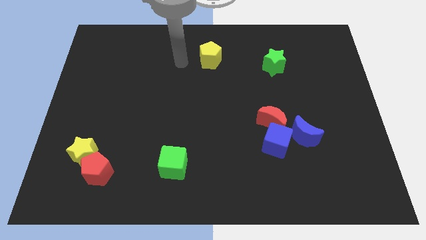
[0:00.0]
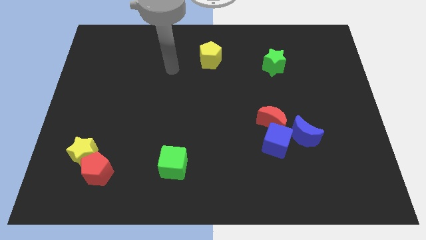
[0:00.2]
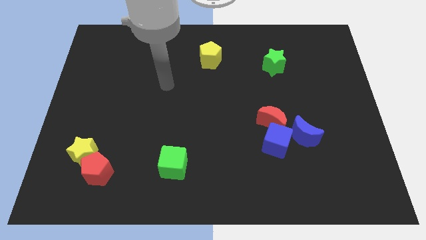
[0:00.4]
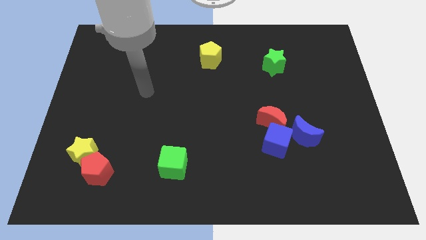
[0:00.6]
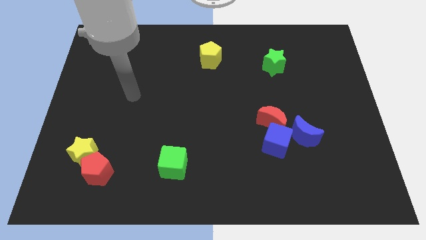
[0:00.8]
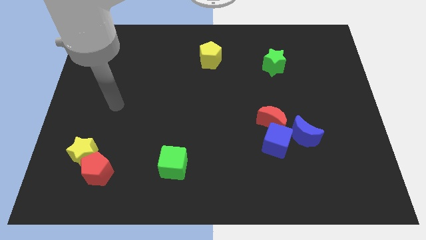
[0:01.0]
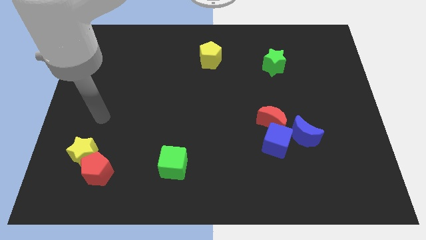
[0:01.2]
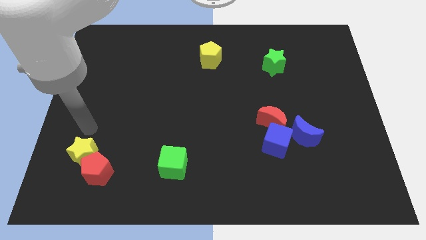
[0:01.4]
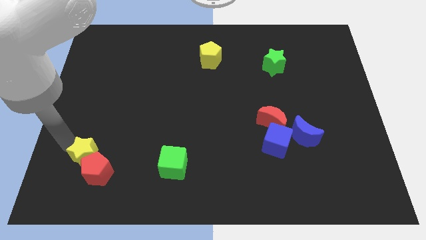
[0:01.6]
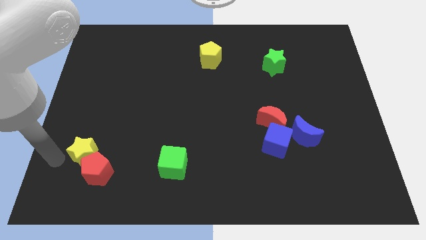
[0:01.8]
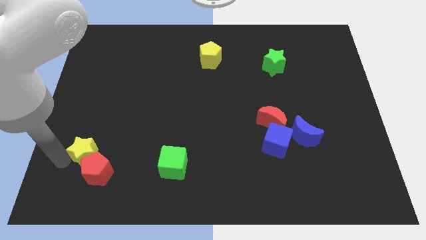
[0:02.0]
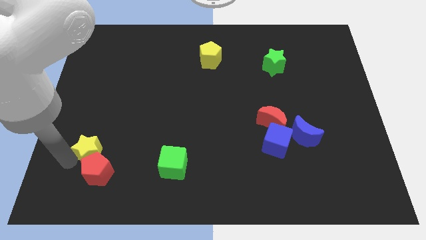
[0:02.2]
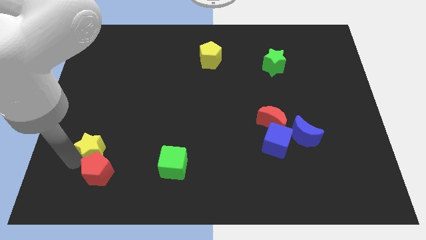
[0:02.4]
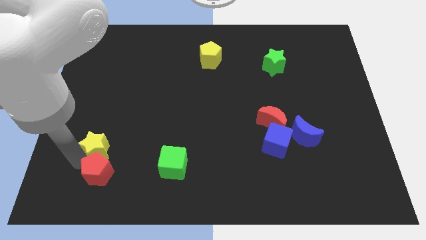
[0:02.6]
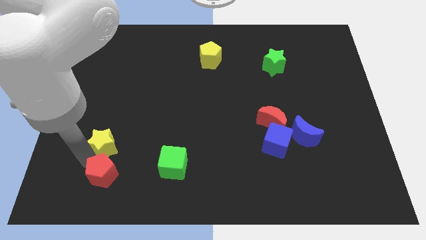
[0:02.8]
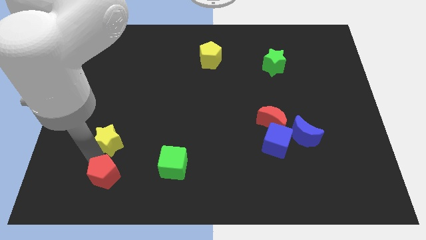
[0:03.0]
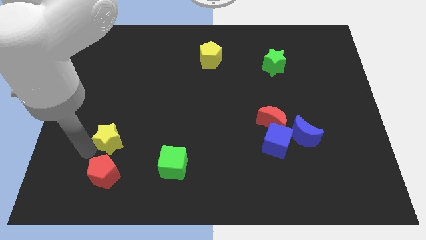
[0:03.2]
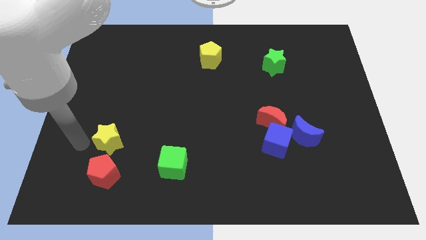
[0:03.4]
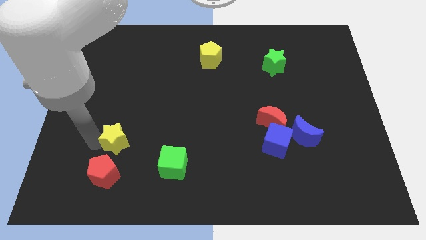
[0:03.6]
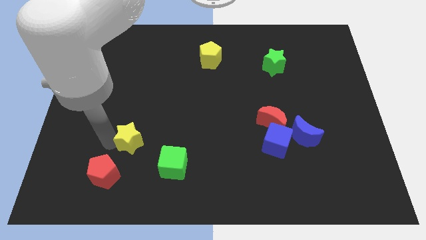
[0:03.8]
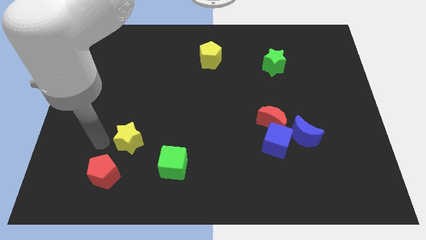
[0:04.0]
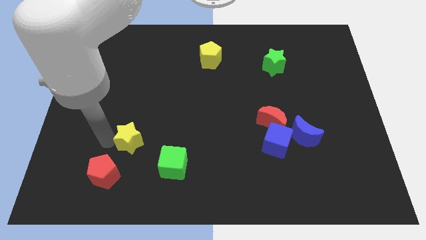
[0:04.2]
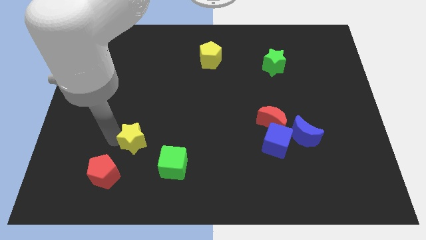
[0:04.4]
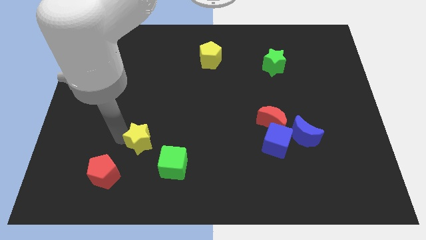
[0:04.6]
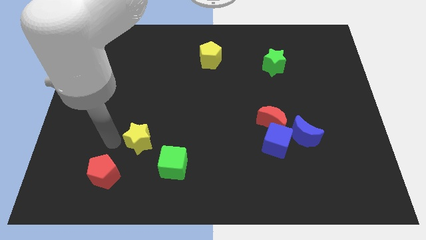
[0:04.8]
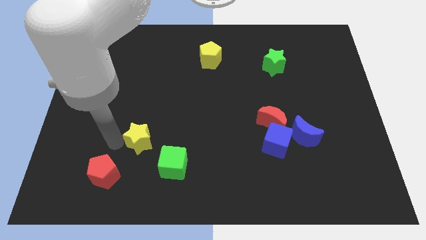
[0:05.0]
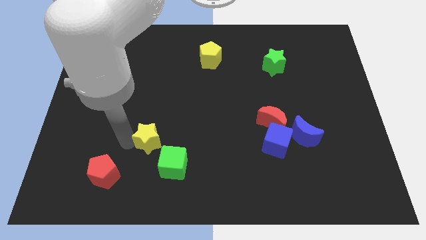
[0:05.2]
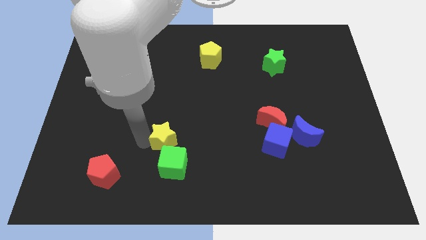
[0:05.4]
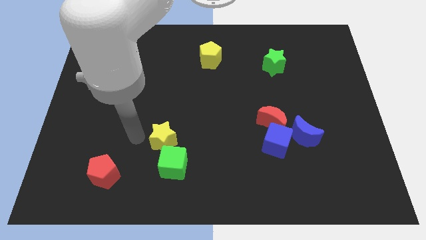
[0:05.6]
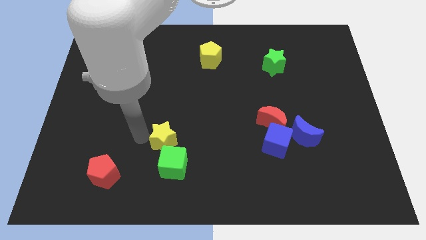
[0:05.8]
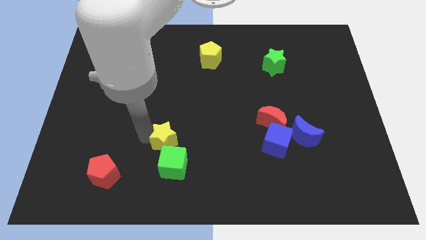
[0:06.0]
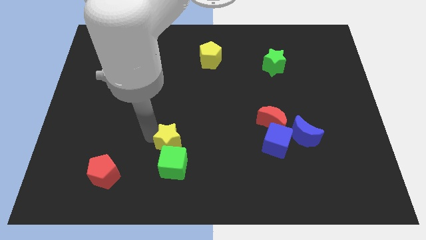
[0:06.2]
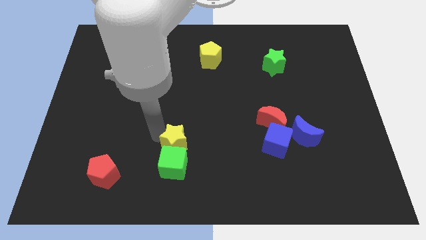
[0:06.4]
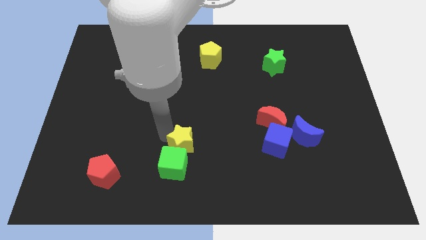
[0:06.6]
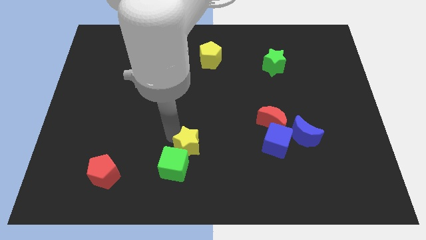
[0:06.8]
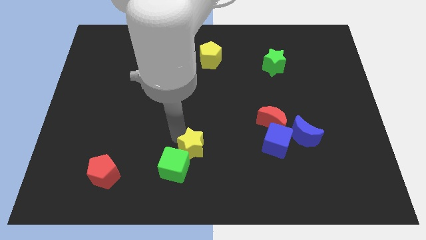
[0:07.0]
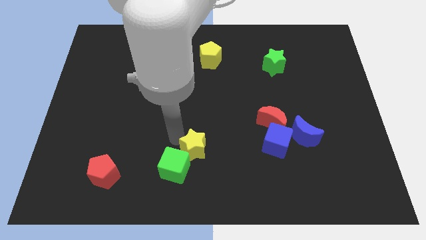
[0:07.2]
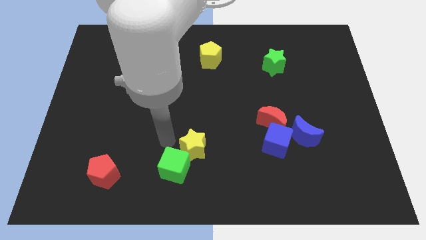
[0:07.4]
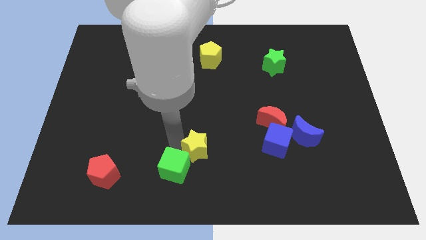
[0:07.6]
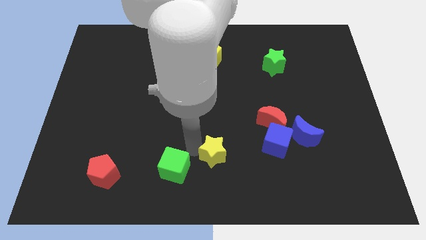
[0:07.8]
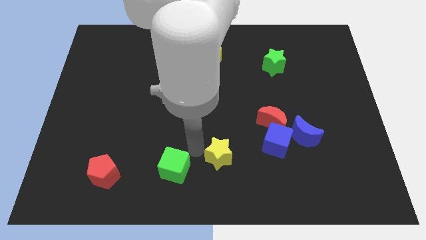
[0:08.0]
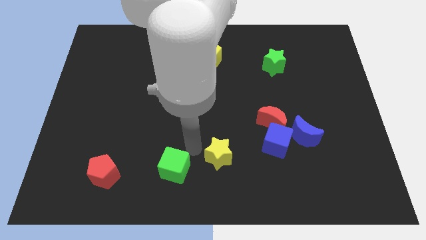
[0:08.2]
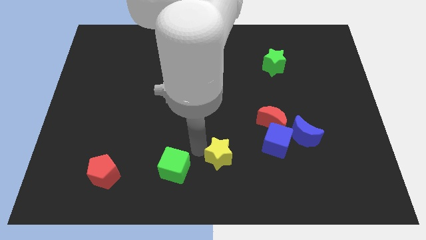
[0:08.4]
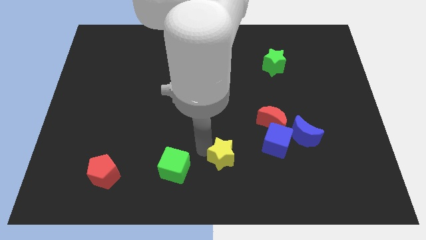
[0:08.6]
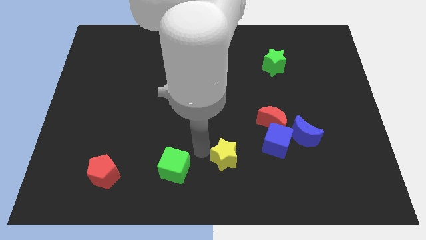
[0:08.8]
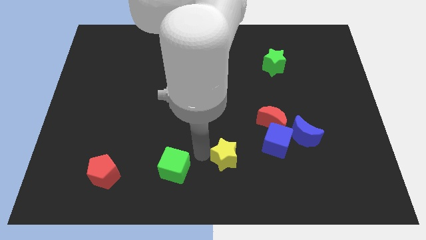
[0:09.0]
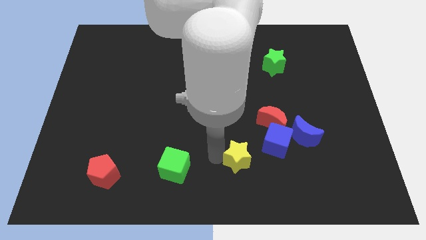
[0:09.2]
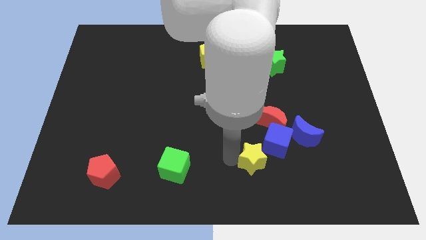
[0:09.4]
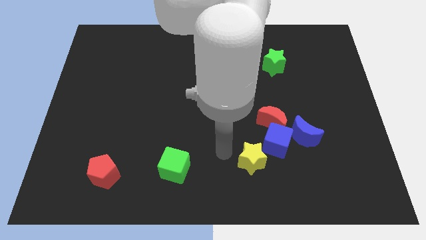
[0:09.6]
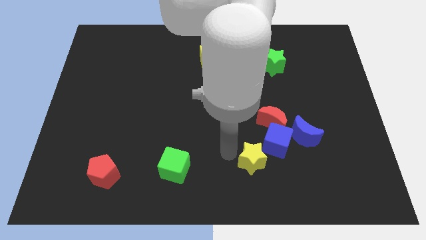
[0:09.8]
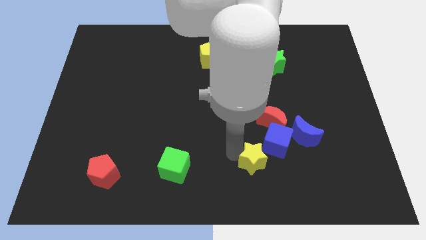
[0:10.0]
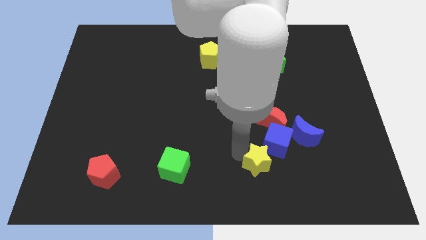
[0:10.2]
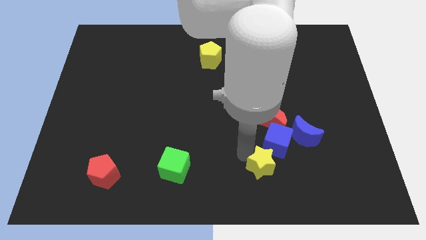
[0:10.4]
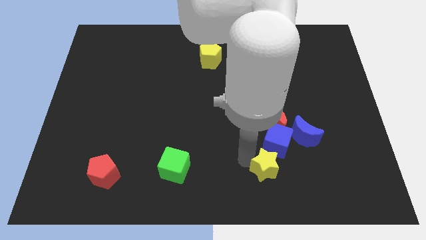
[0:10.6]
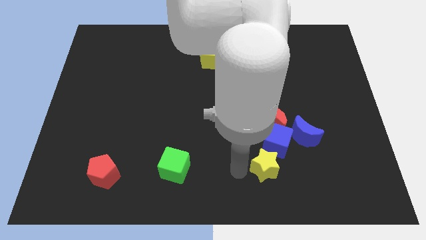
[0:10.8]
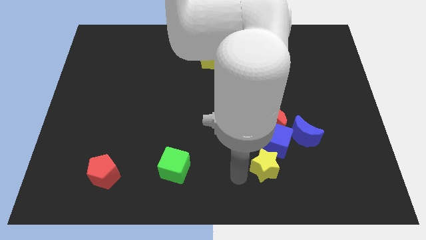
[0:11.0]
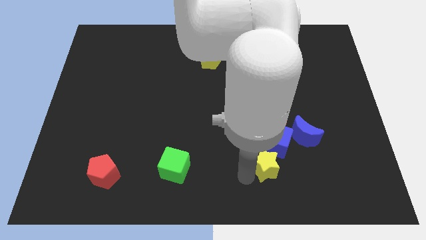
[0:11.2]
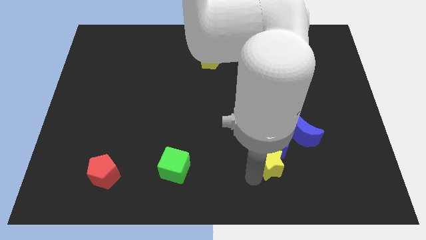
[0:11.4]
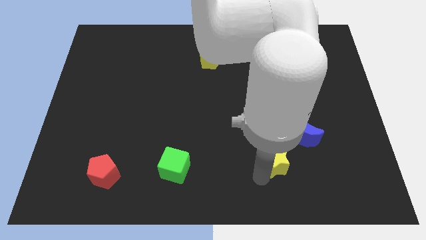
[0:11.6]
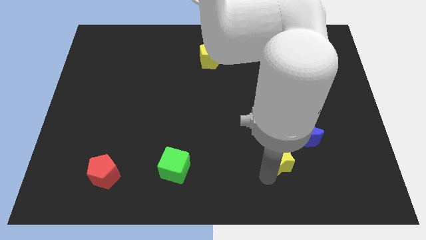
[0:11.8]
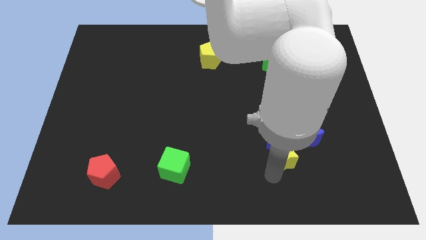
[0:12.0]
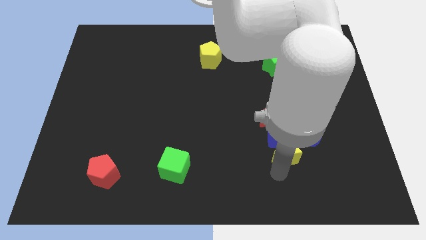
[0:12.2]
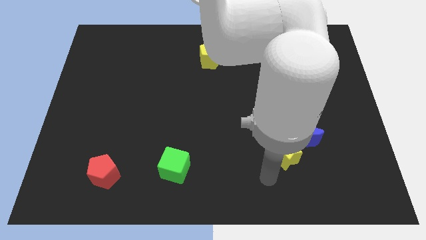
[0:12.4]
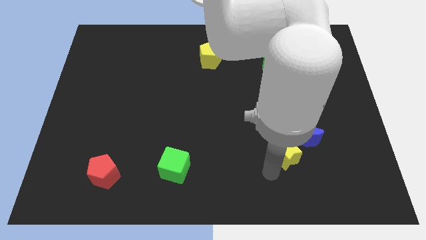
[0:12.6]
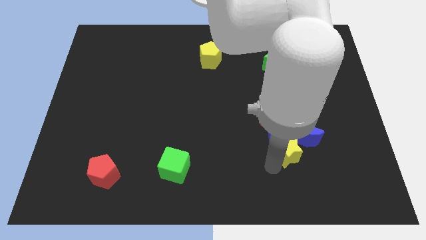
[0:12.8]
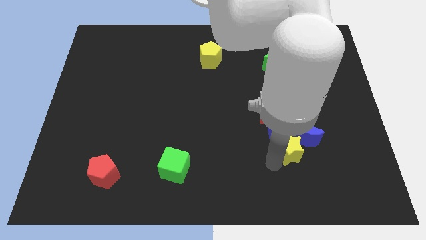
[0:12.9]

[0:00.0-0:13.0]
push the yellow star to the blue moon

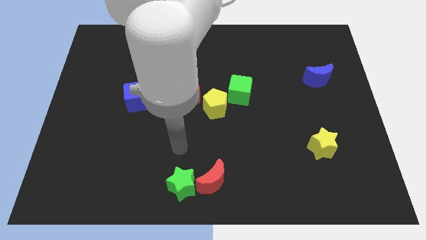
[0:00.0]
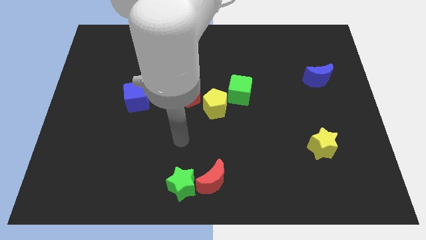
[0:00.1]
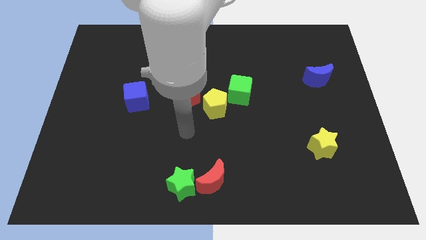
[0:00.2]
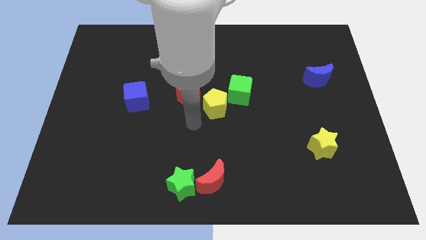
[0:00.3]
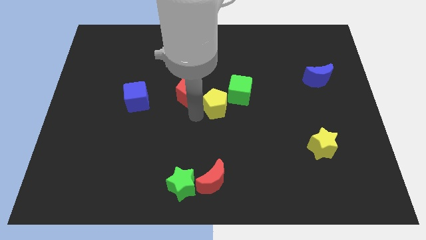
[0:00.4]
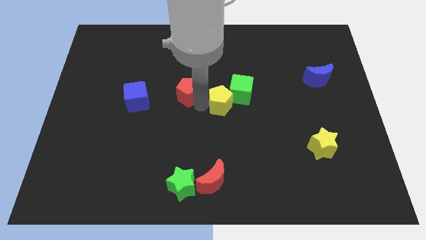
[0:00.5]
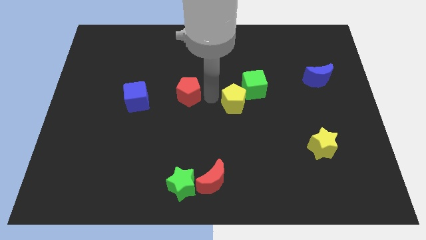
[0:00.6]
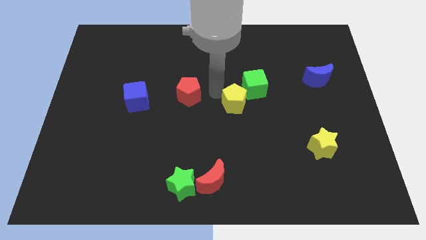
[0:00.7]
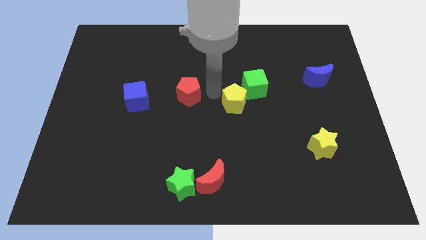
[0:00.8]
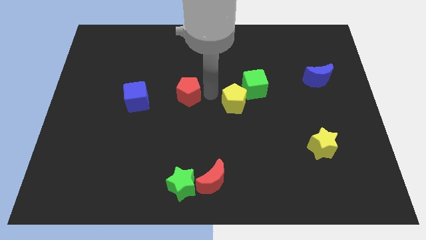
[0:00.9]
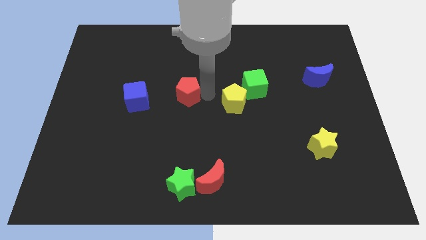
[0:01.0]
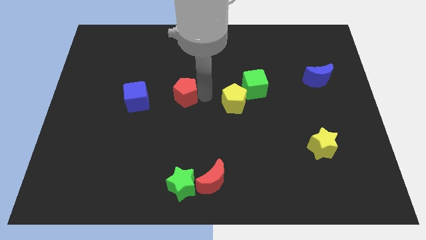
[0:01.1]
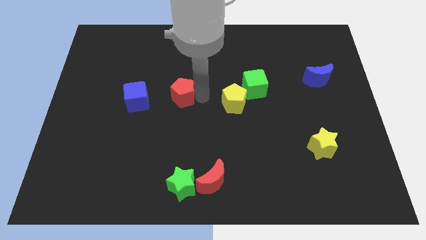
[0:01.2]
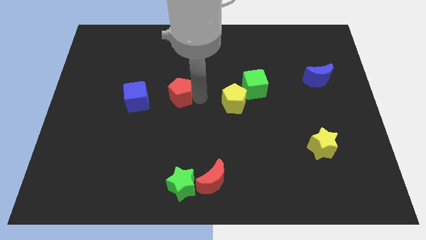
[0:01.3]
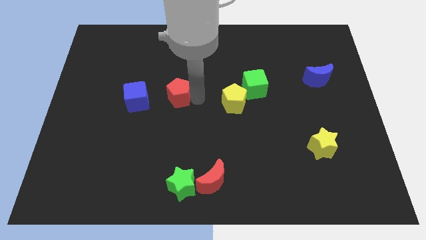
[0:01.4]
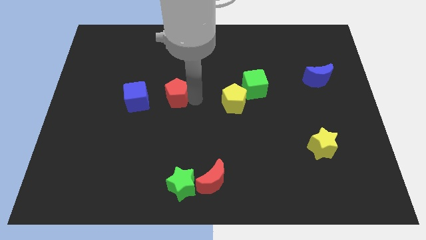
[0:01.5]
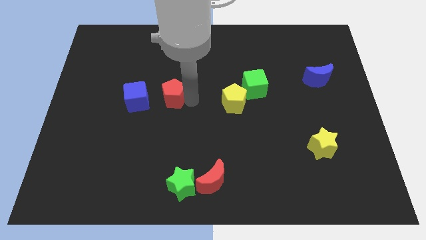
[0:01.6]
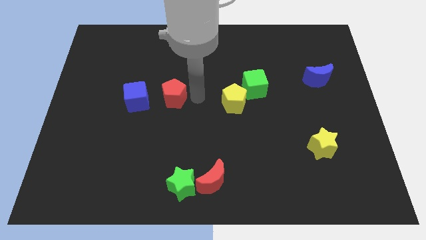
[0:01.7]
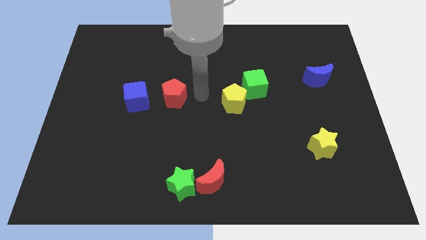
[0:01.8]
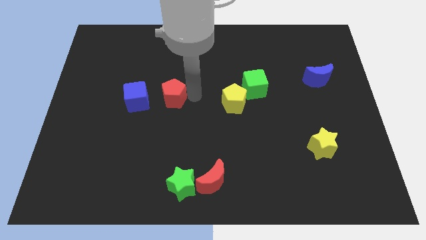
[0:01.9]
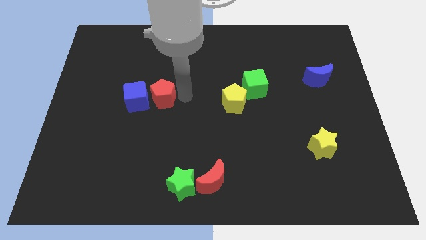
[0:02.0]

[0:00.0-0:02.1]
slide the red pentagon close to the blue cube
